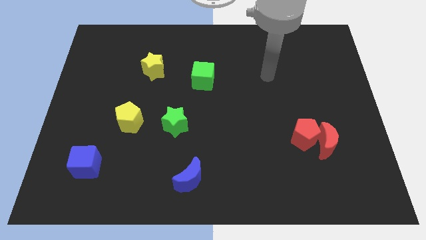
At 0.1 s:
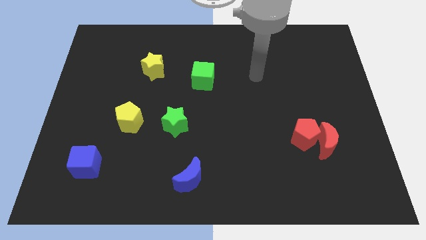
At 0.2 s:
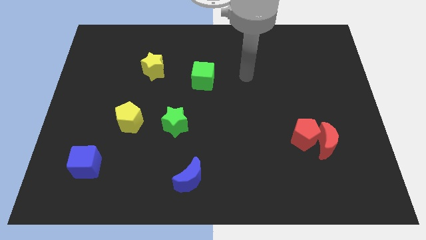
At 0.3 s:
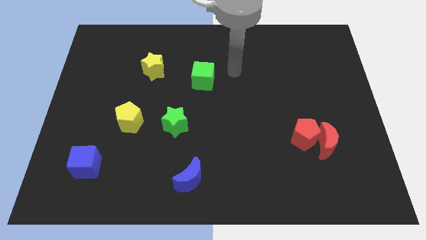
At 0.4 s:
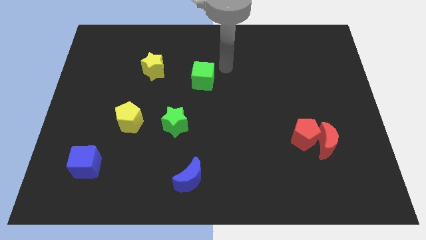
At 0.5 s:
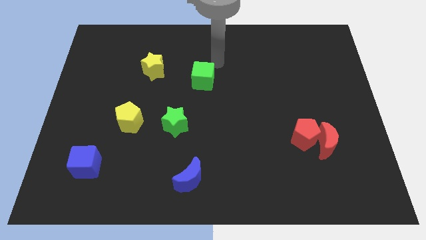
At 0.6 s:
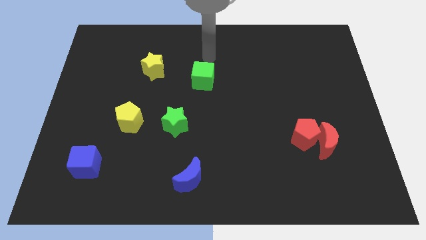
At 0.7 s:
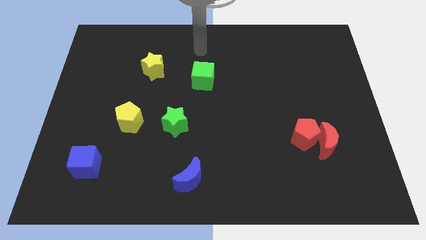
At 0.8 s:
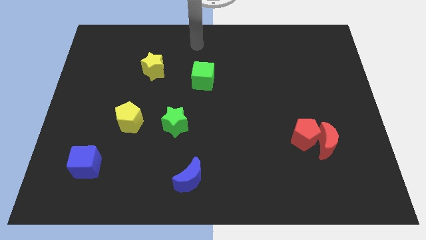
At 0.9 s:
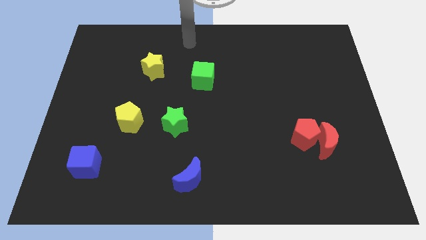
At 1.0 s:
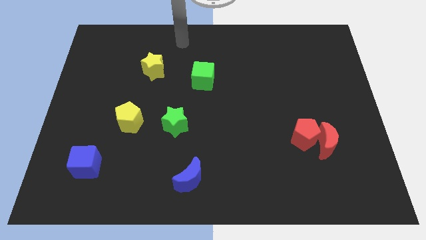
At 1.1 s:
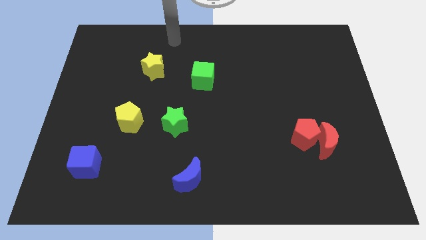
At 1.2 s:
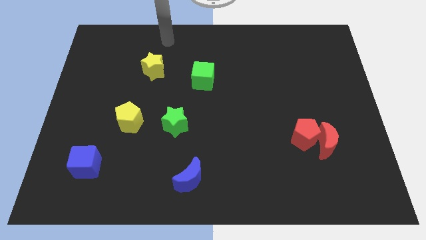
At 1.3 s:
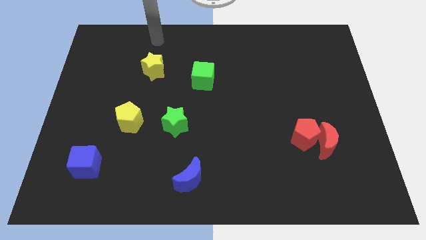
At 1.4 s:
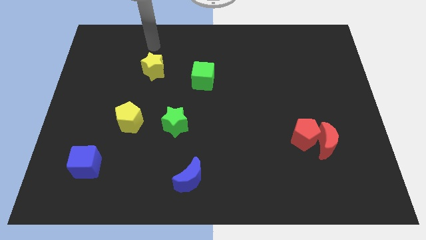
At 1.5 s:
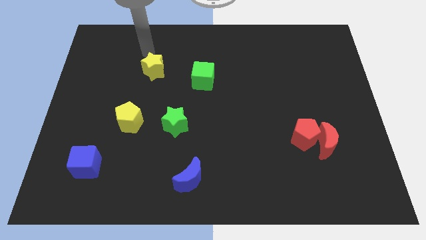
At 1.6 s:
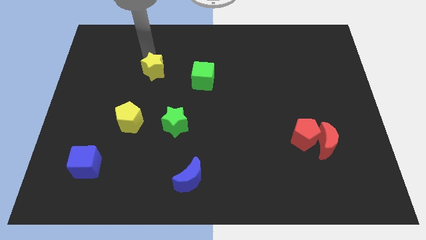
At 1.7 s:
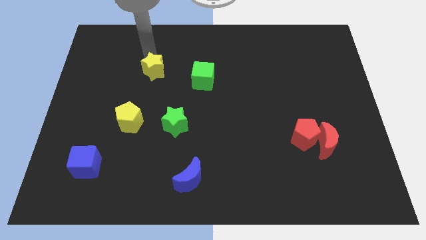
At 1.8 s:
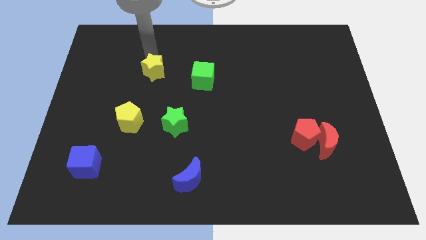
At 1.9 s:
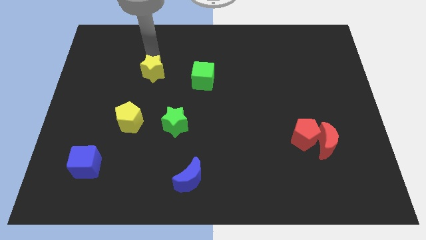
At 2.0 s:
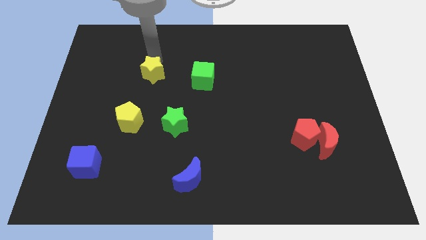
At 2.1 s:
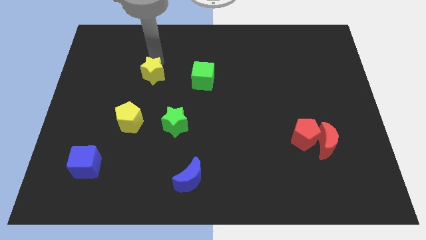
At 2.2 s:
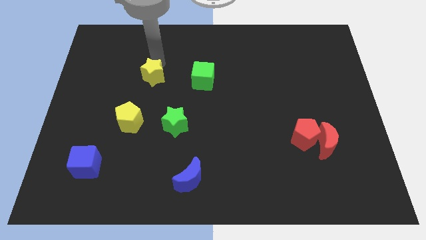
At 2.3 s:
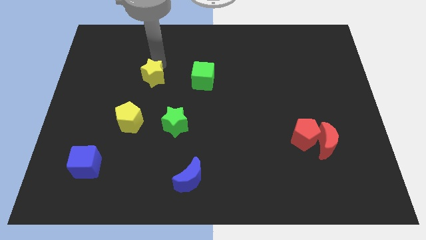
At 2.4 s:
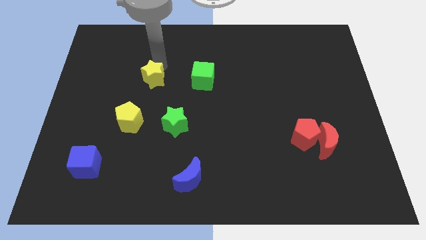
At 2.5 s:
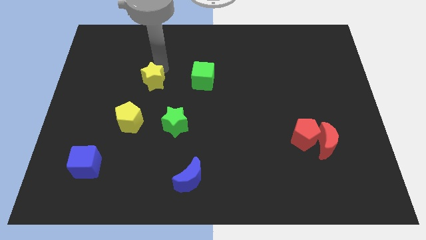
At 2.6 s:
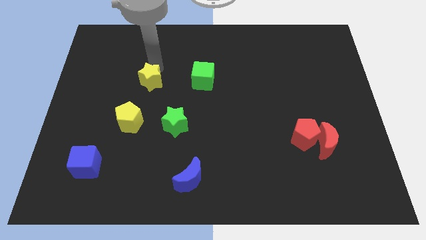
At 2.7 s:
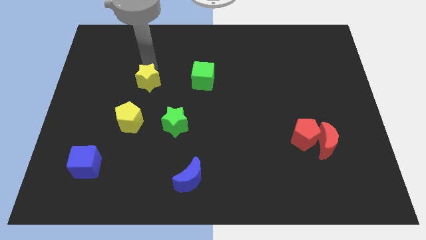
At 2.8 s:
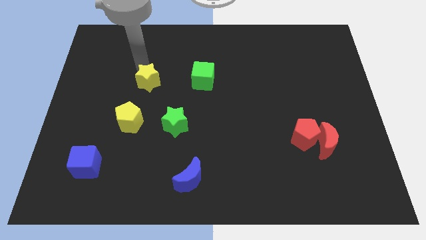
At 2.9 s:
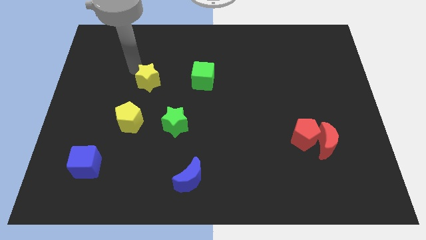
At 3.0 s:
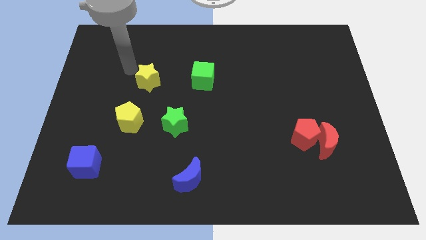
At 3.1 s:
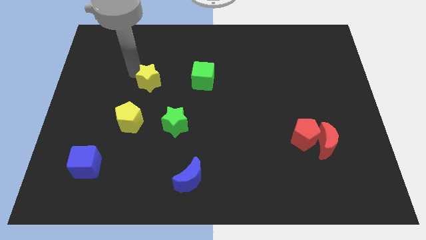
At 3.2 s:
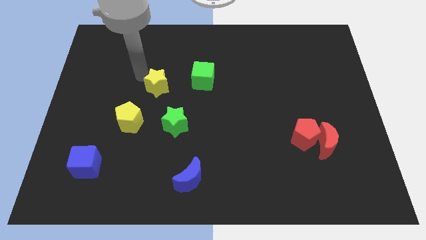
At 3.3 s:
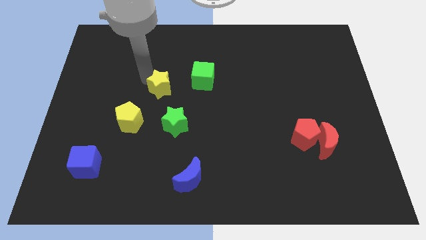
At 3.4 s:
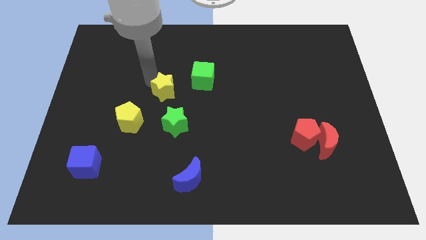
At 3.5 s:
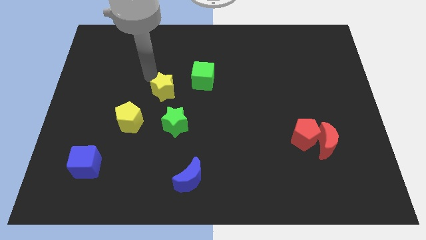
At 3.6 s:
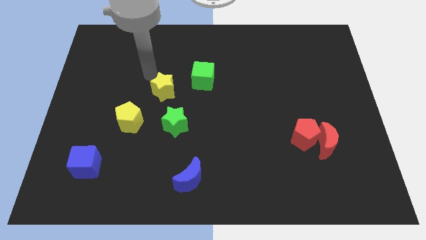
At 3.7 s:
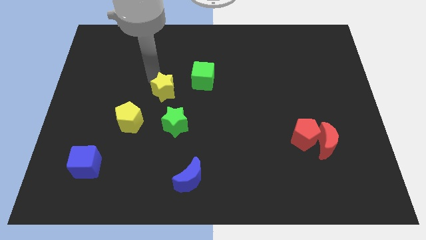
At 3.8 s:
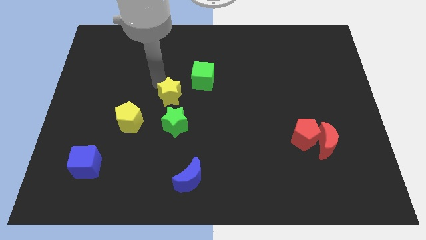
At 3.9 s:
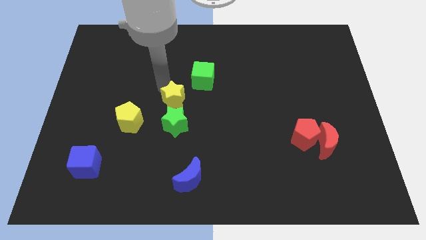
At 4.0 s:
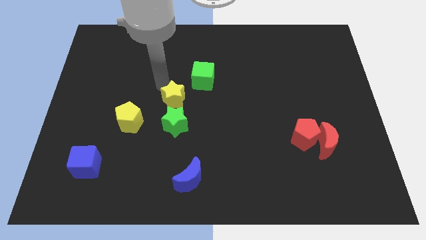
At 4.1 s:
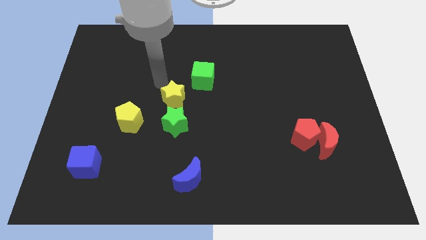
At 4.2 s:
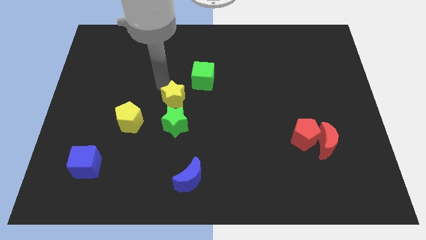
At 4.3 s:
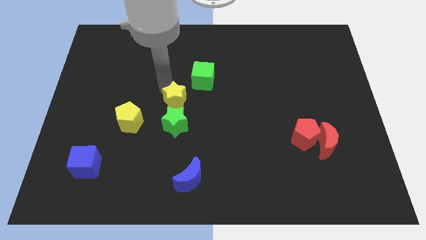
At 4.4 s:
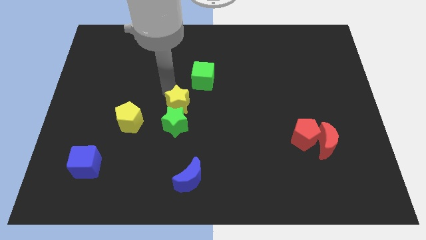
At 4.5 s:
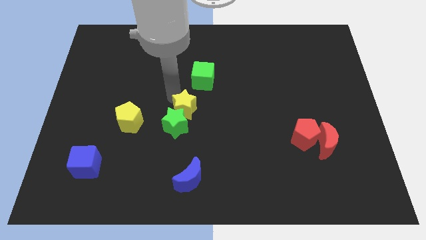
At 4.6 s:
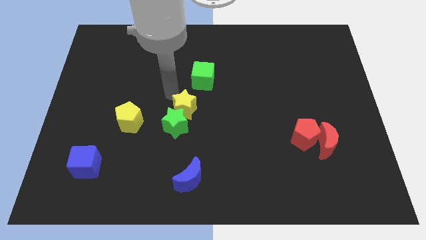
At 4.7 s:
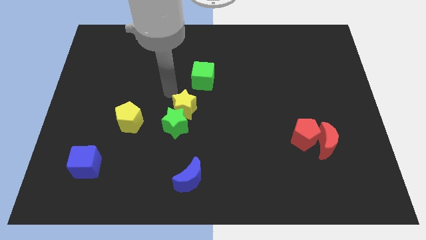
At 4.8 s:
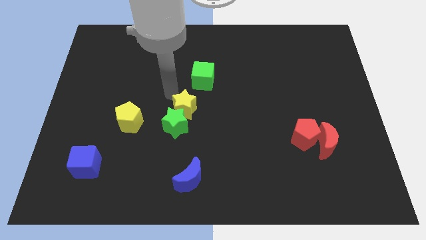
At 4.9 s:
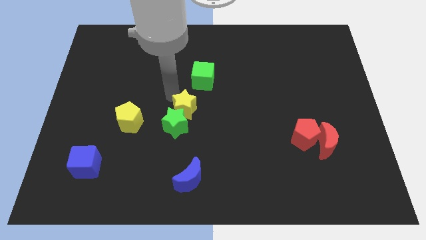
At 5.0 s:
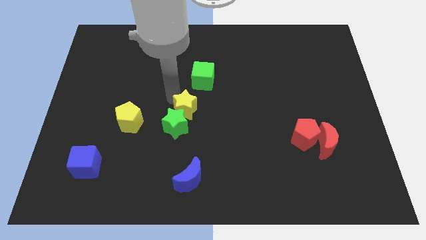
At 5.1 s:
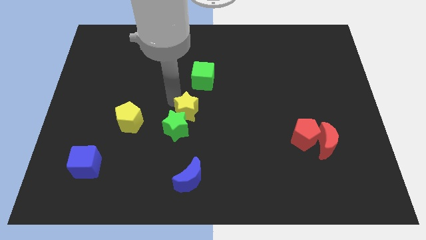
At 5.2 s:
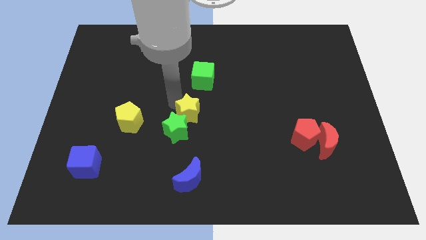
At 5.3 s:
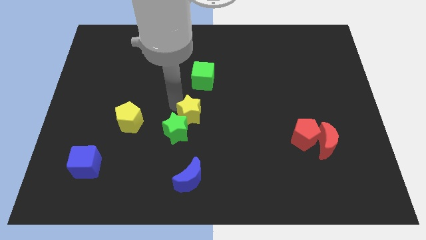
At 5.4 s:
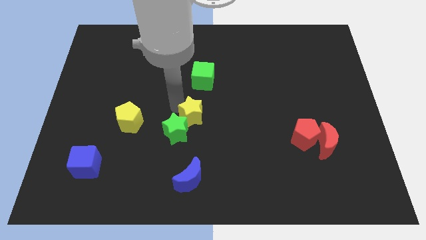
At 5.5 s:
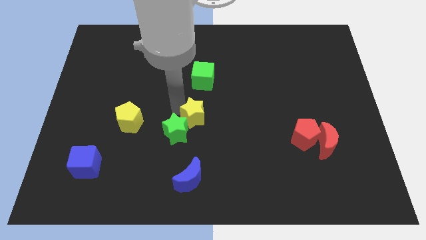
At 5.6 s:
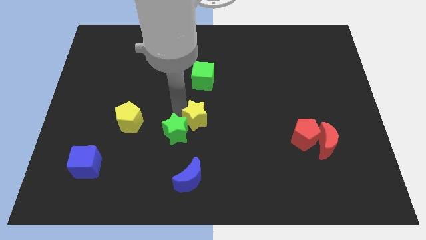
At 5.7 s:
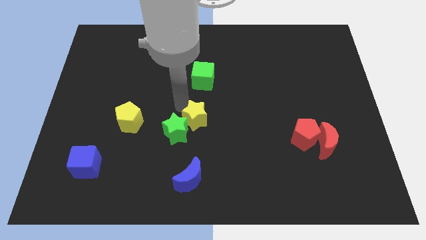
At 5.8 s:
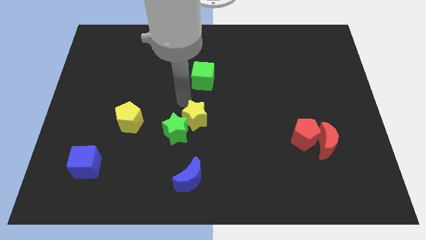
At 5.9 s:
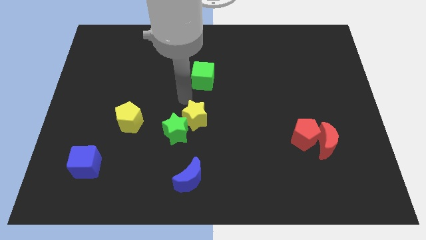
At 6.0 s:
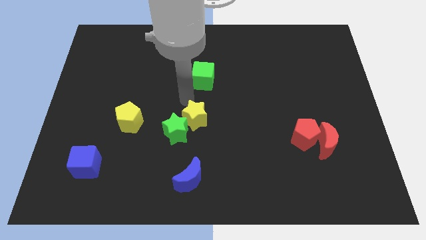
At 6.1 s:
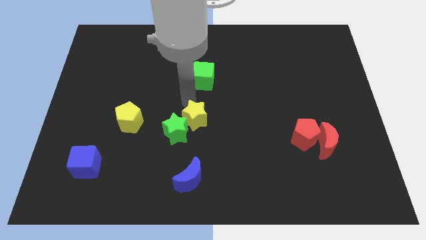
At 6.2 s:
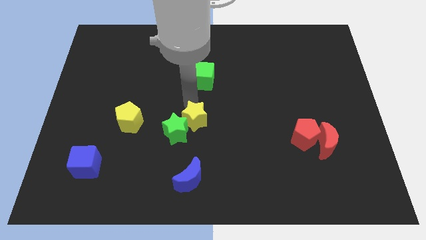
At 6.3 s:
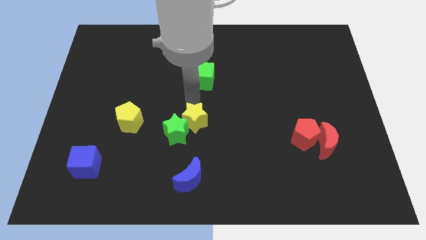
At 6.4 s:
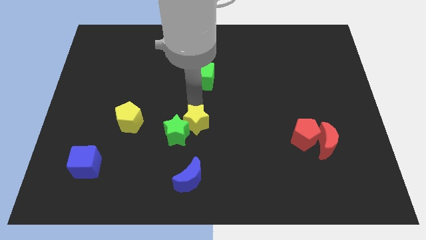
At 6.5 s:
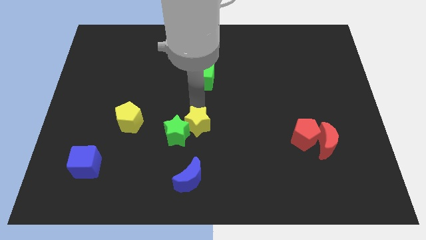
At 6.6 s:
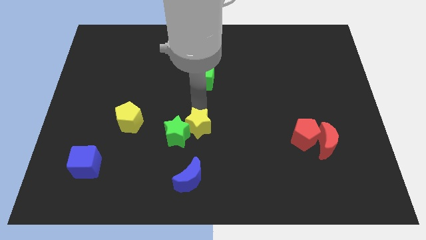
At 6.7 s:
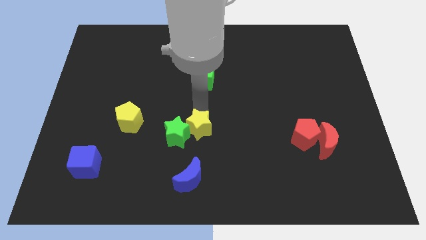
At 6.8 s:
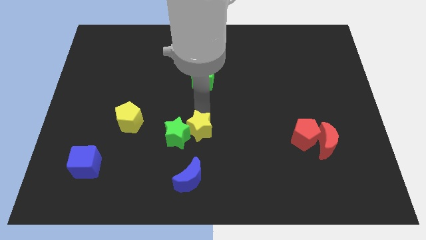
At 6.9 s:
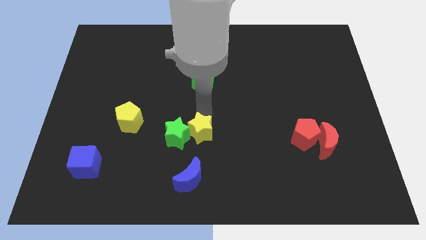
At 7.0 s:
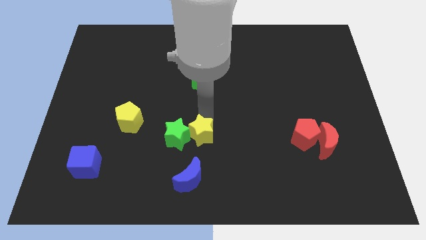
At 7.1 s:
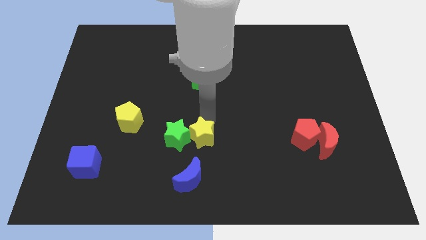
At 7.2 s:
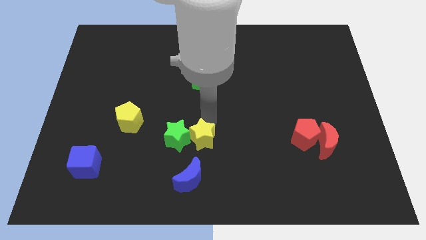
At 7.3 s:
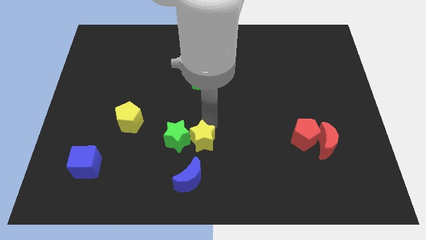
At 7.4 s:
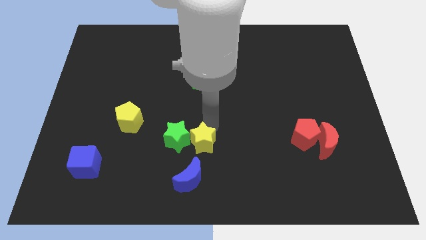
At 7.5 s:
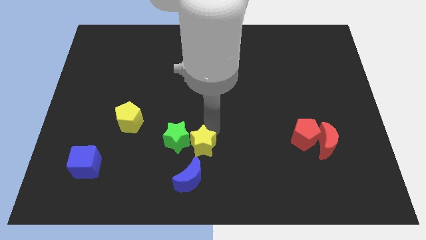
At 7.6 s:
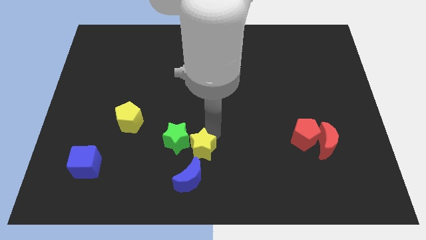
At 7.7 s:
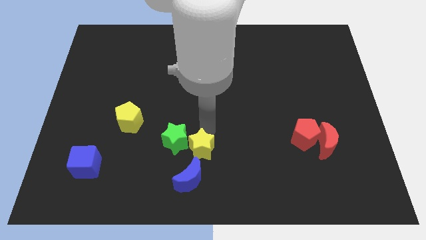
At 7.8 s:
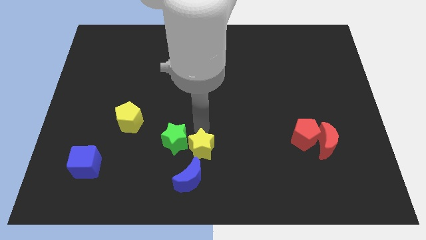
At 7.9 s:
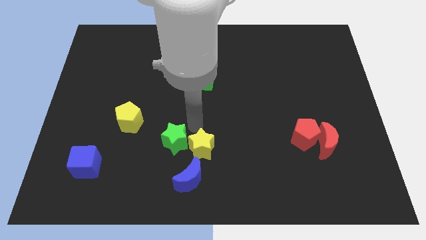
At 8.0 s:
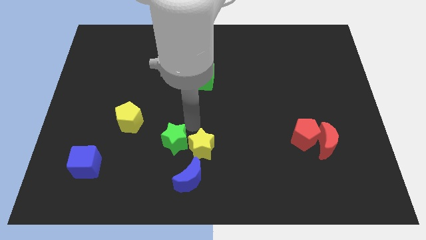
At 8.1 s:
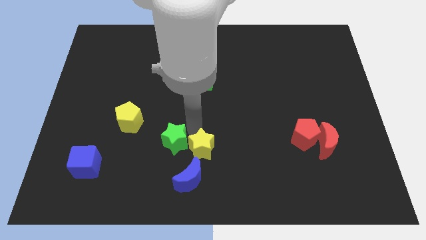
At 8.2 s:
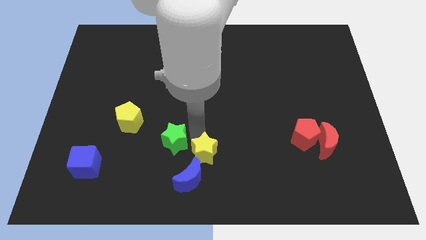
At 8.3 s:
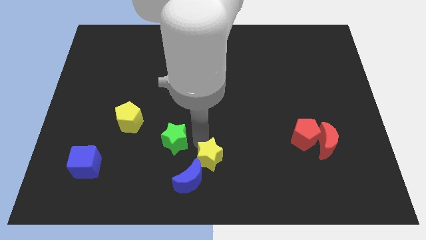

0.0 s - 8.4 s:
push the yellow star to the bottom side
